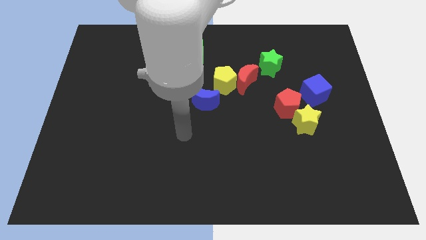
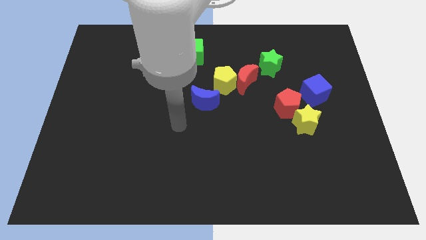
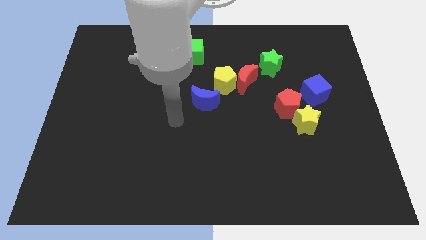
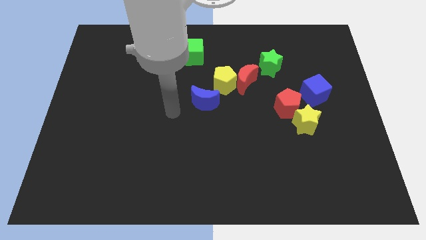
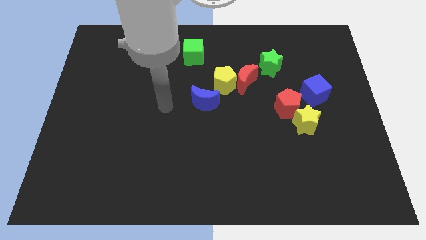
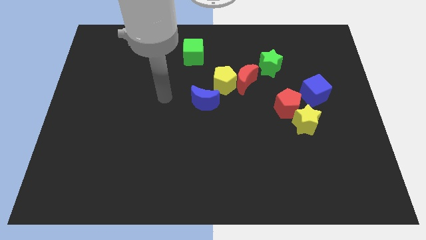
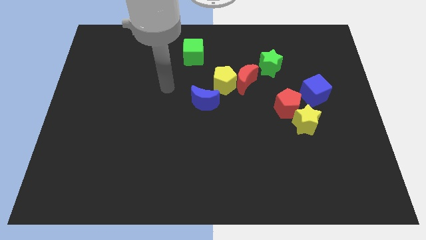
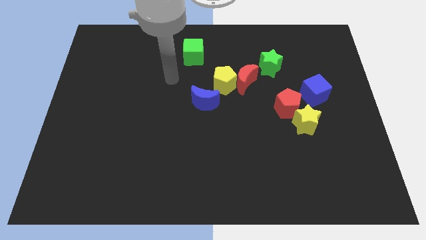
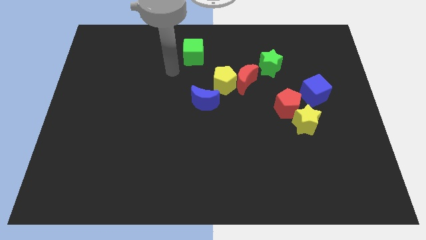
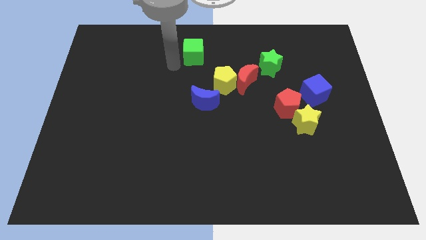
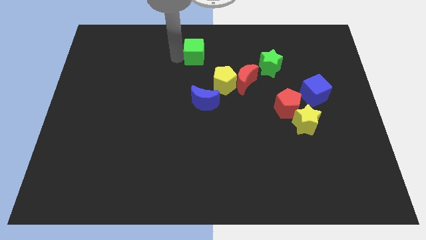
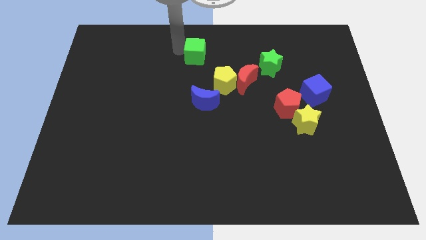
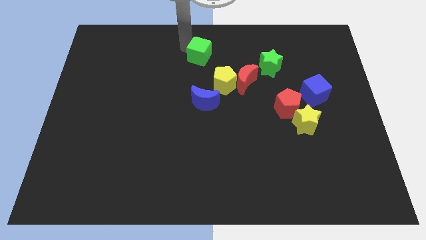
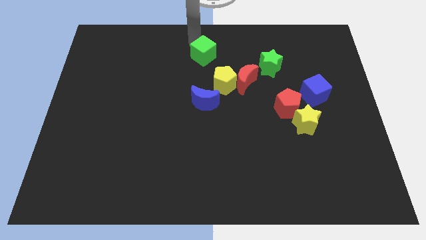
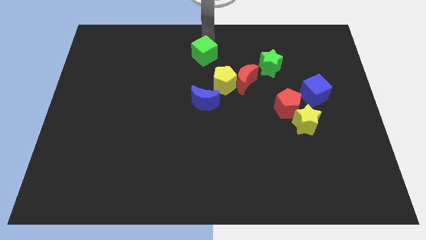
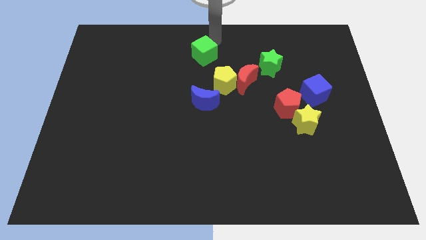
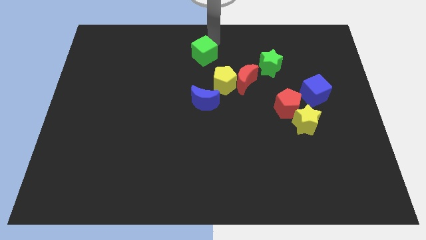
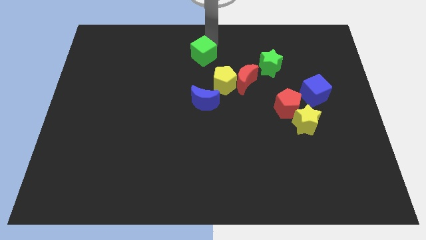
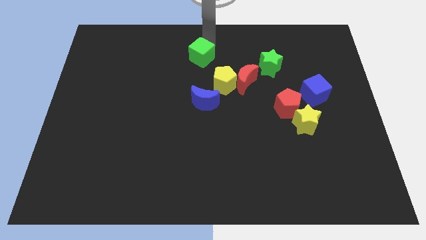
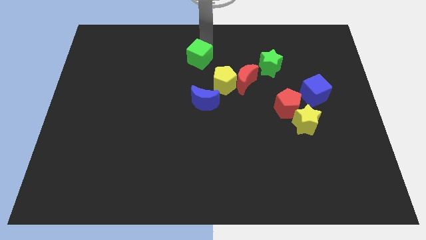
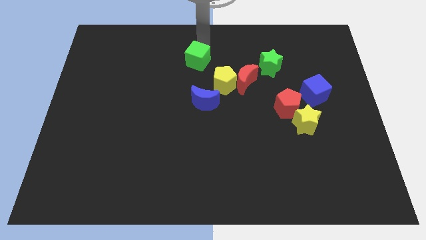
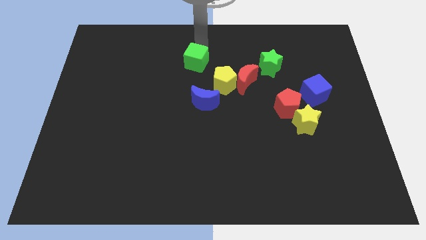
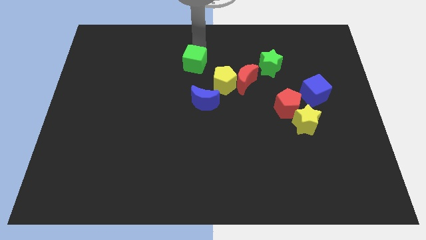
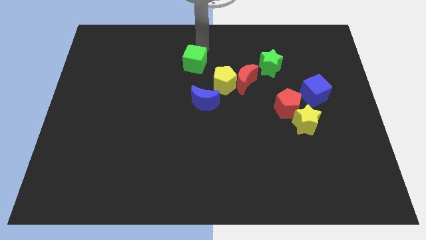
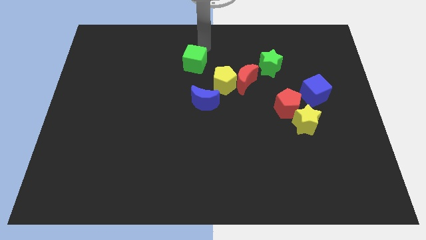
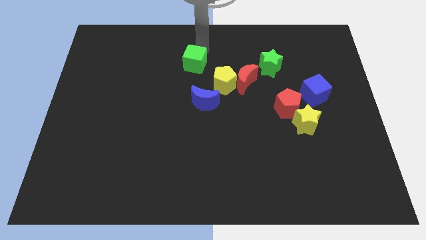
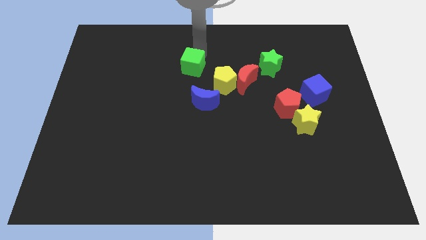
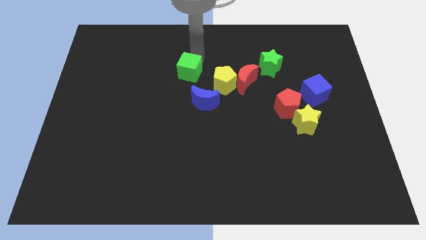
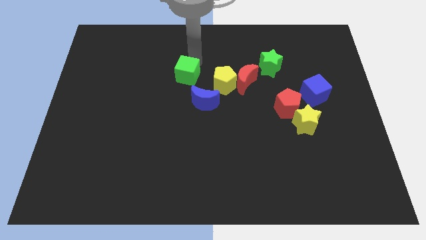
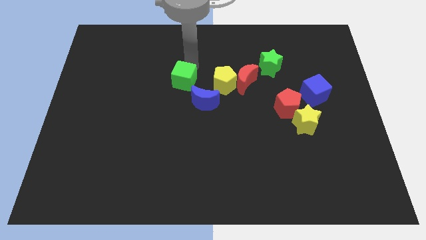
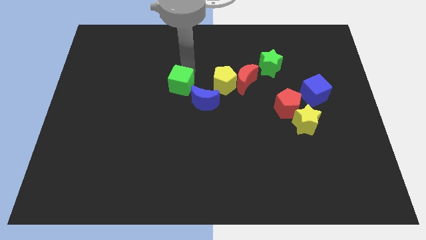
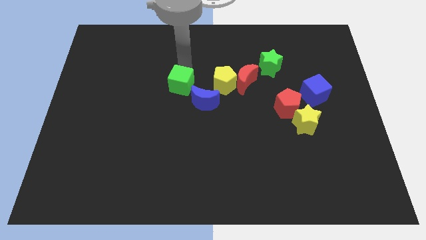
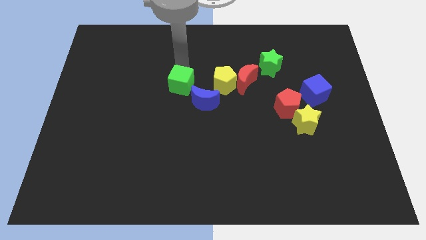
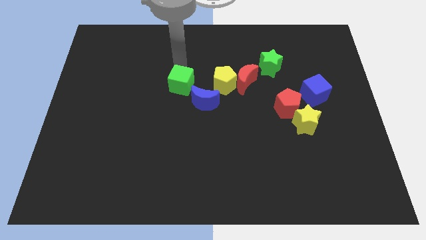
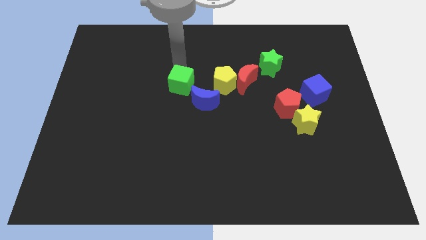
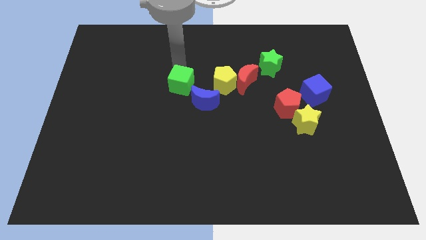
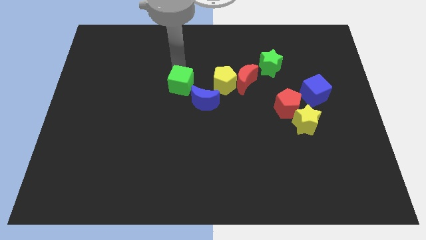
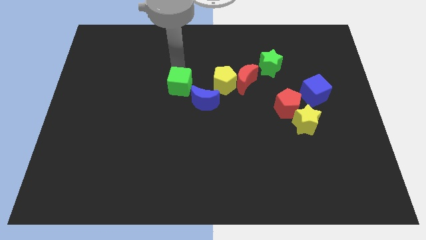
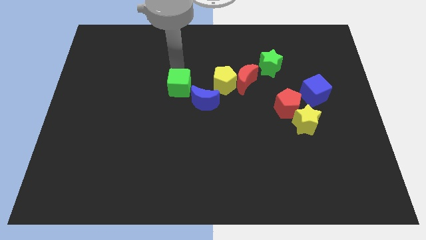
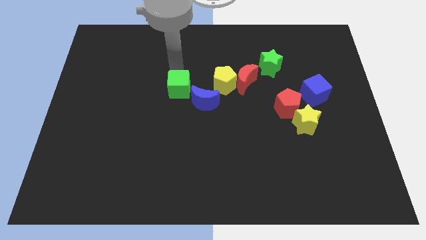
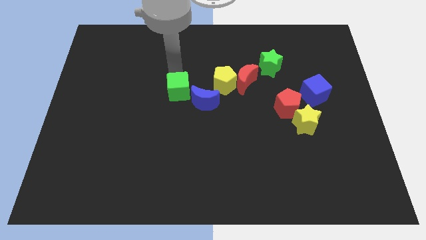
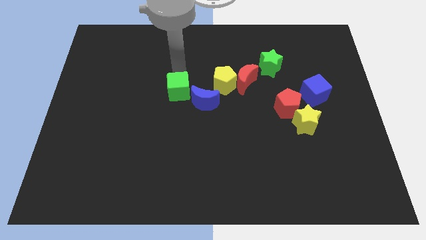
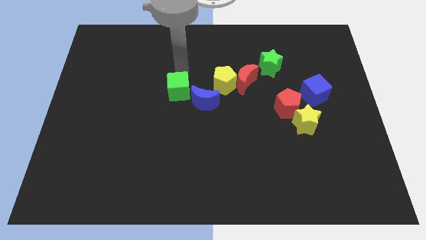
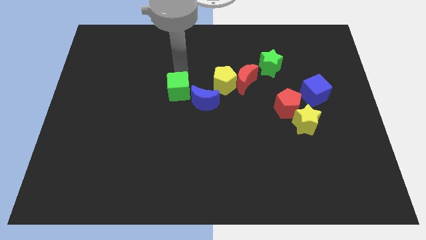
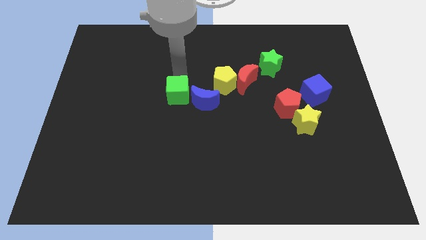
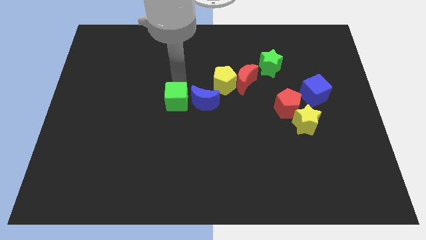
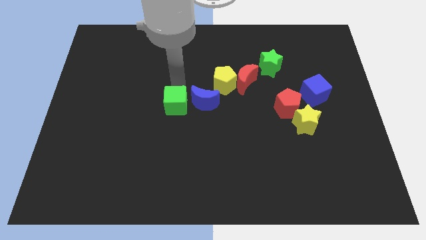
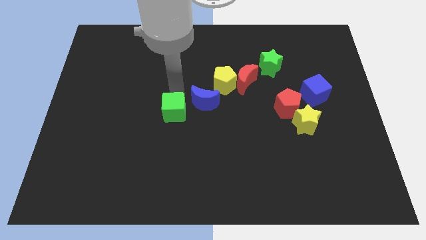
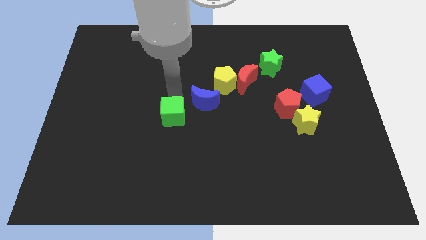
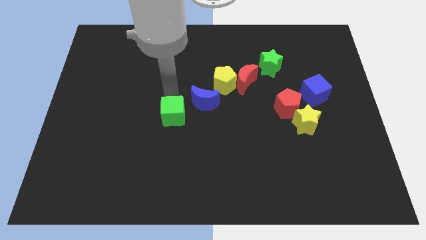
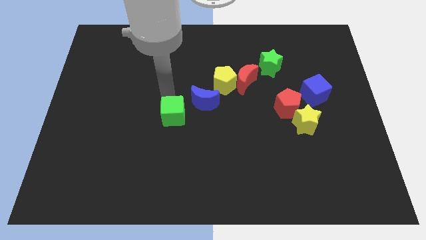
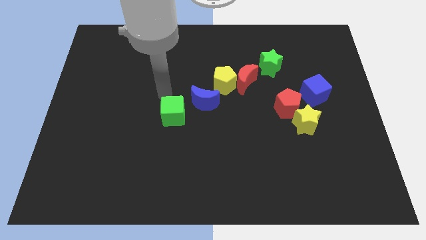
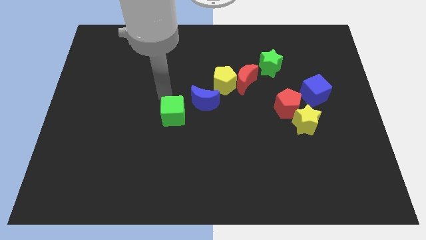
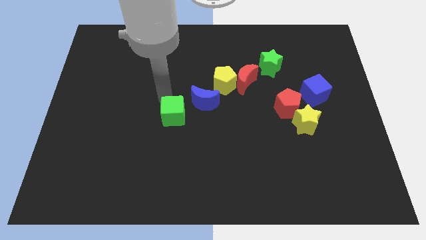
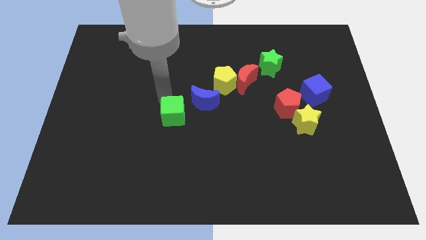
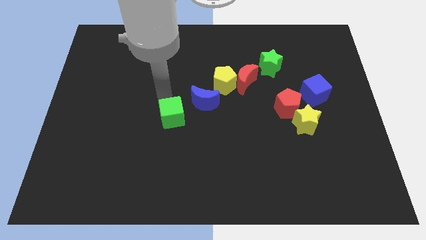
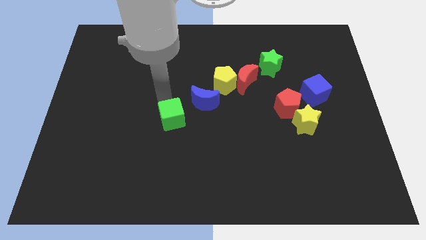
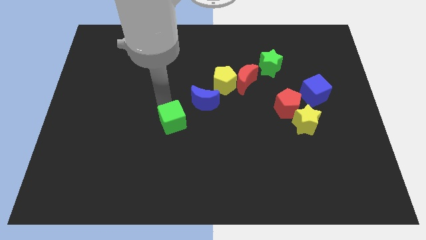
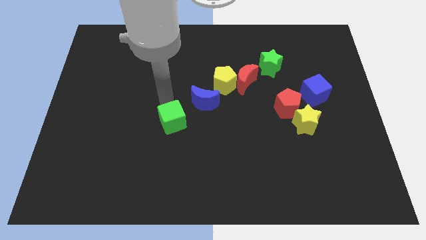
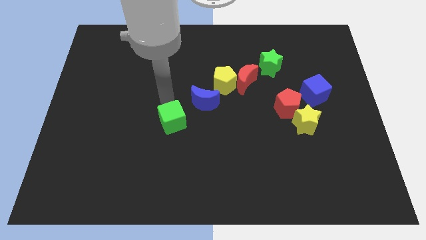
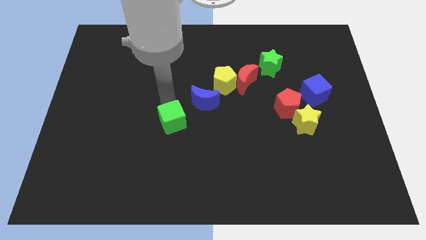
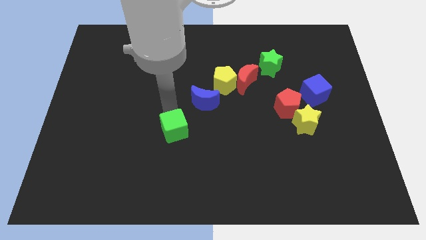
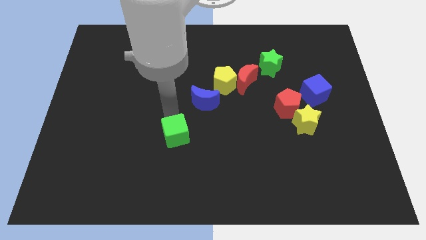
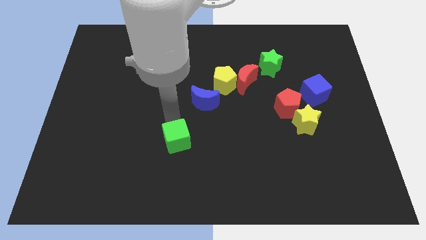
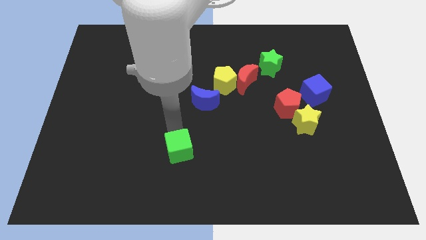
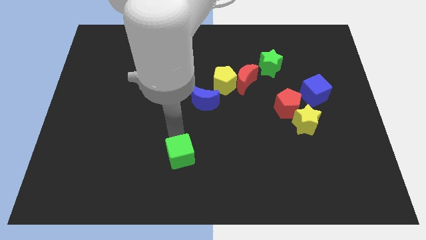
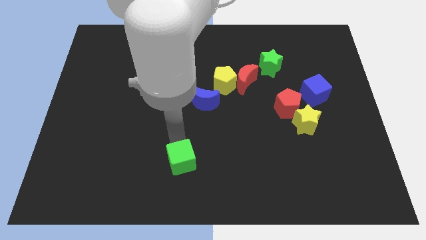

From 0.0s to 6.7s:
put the green cube to the bottom
